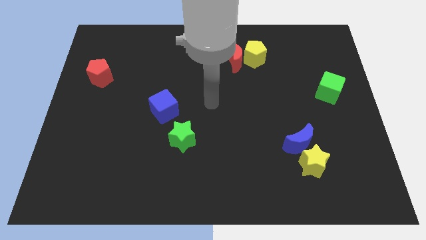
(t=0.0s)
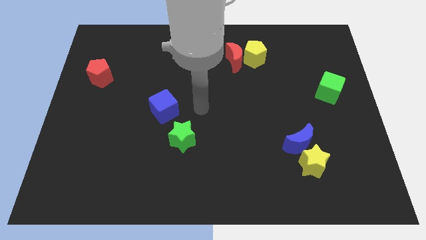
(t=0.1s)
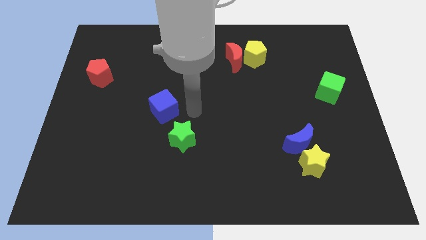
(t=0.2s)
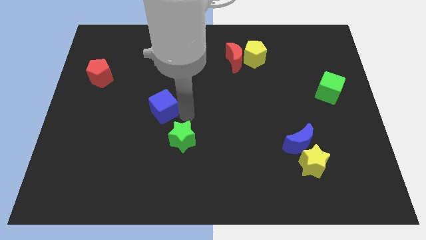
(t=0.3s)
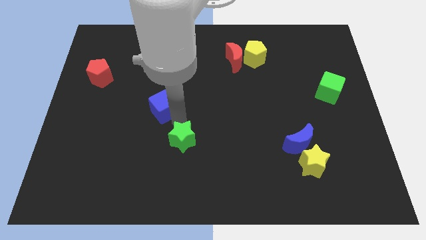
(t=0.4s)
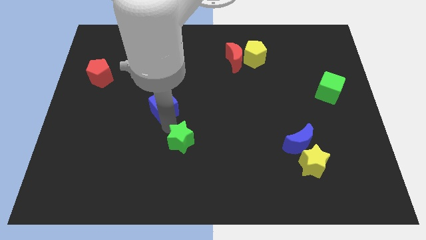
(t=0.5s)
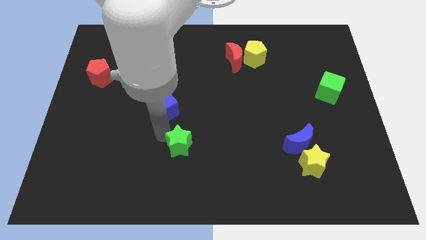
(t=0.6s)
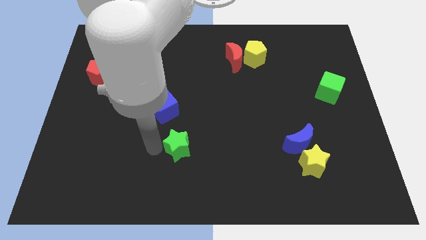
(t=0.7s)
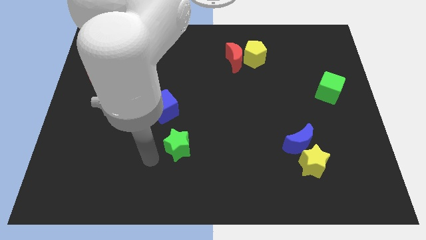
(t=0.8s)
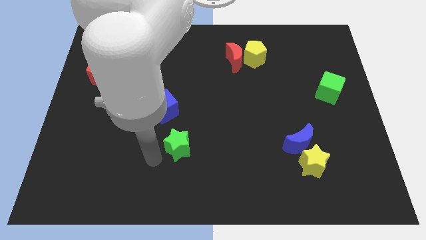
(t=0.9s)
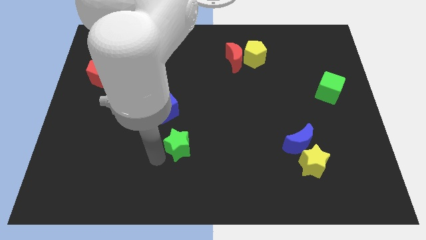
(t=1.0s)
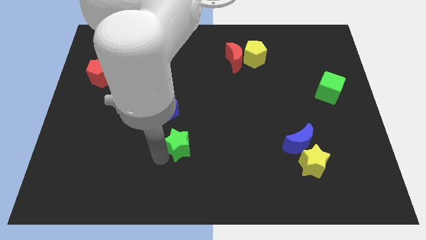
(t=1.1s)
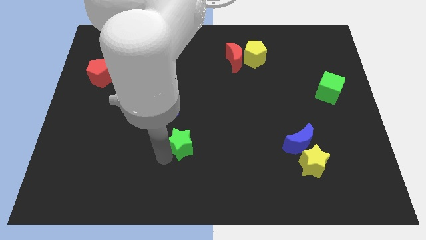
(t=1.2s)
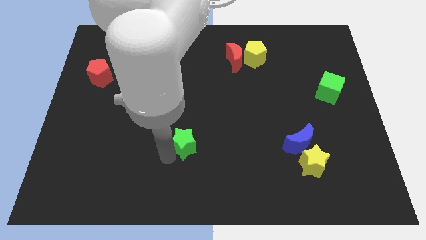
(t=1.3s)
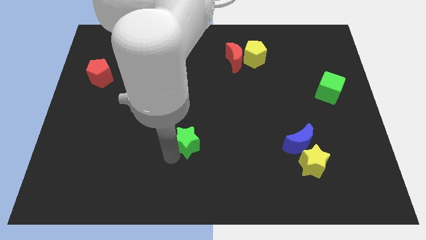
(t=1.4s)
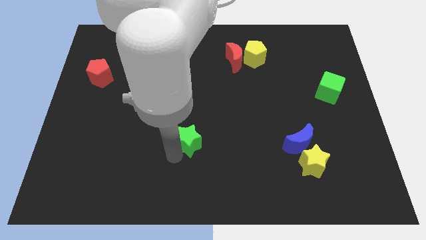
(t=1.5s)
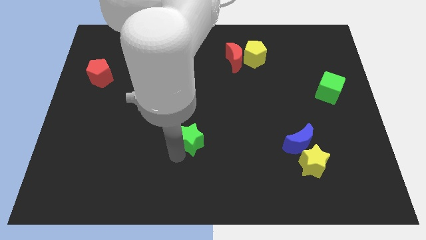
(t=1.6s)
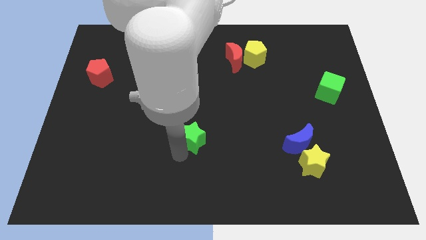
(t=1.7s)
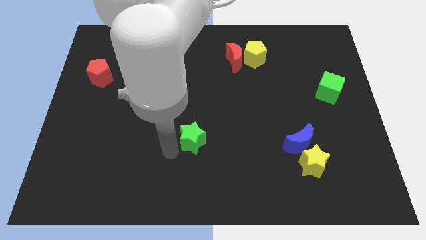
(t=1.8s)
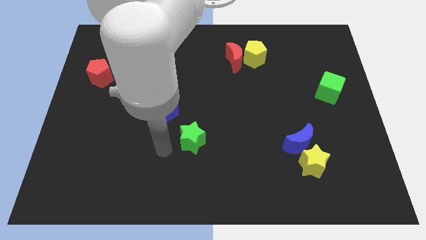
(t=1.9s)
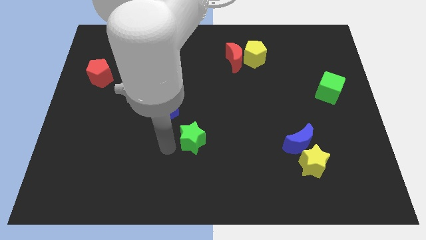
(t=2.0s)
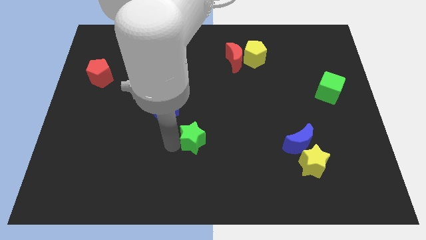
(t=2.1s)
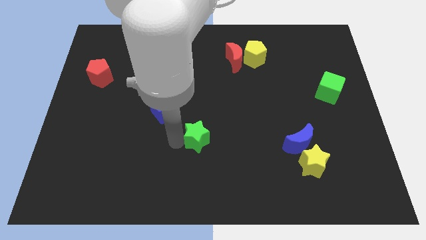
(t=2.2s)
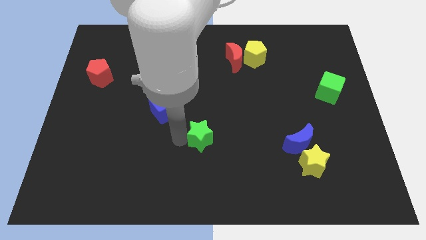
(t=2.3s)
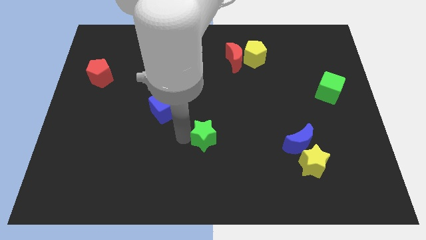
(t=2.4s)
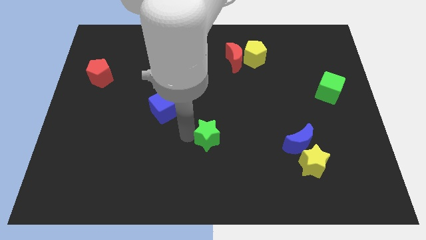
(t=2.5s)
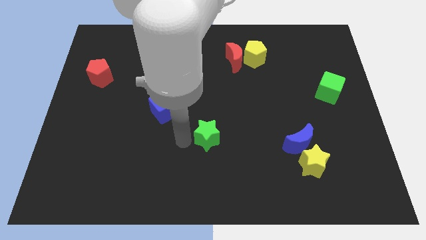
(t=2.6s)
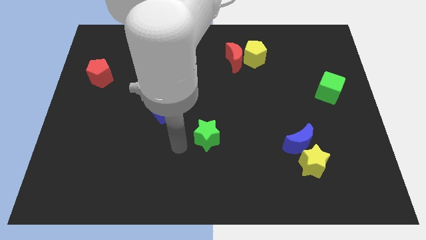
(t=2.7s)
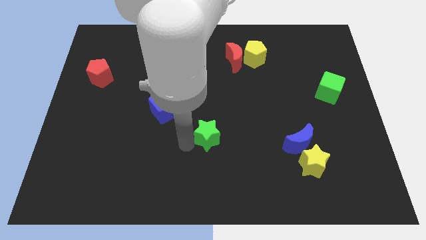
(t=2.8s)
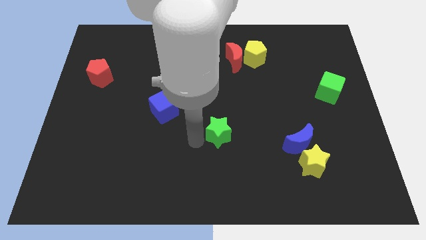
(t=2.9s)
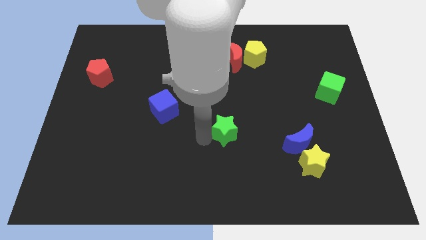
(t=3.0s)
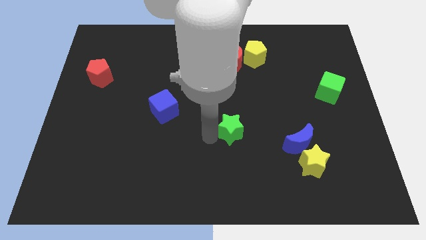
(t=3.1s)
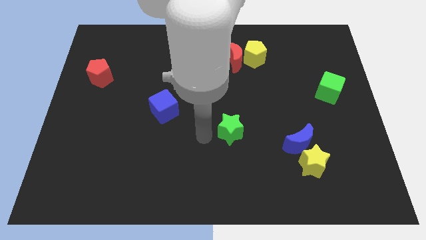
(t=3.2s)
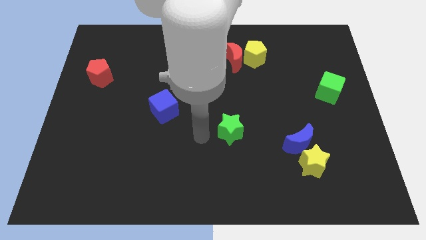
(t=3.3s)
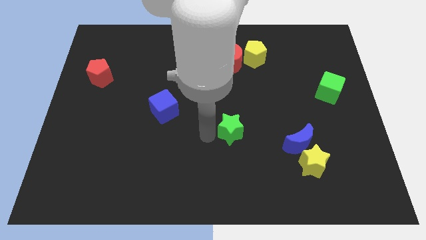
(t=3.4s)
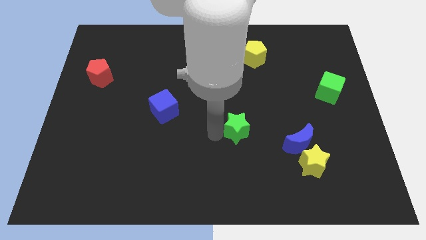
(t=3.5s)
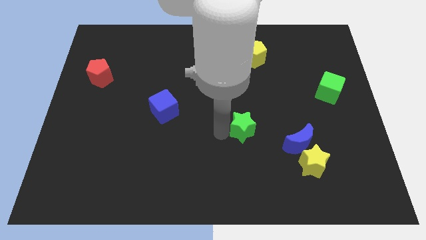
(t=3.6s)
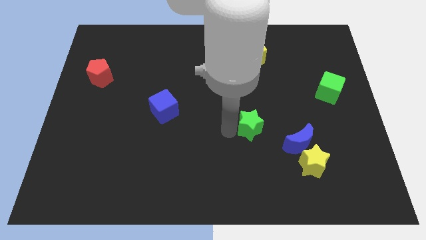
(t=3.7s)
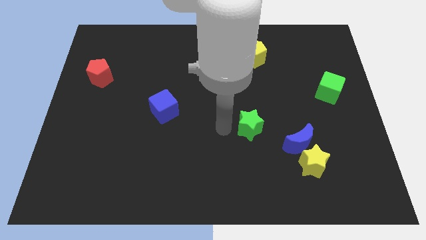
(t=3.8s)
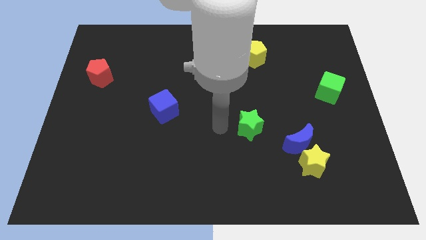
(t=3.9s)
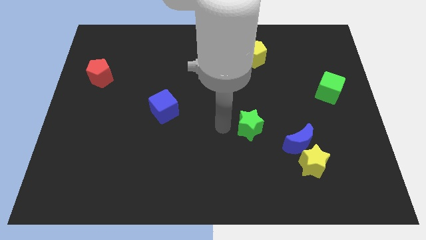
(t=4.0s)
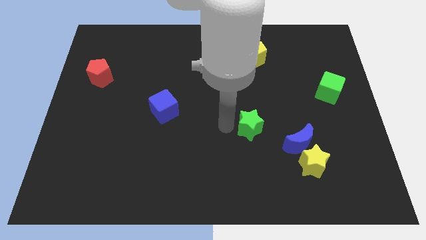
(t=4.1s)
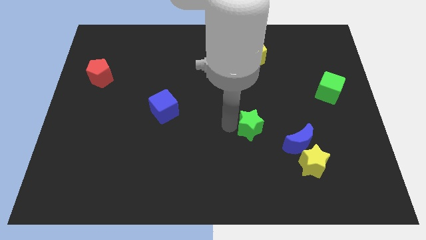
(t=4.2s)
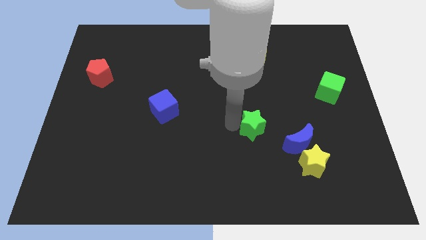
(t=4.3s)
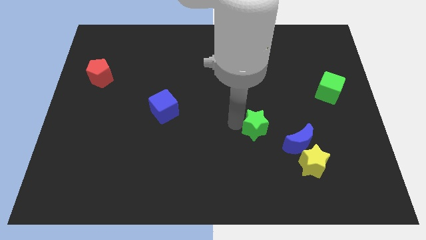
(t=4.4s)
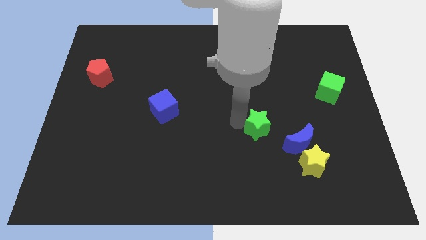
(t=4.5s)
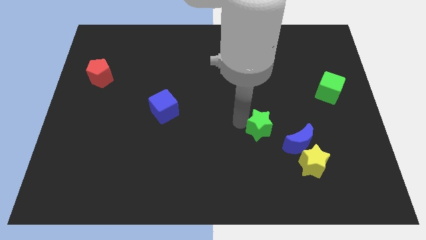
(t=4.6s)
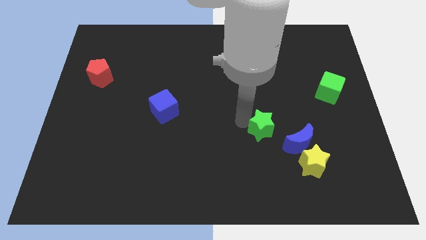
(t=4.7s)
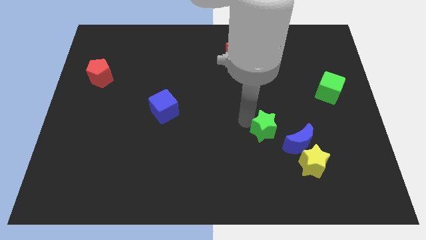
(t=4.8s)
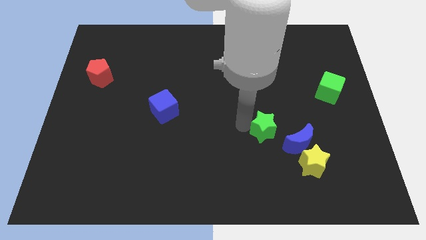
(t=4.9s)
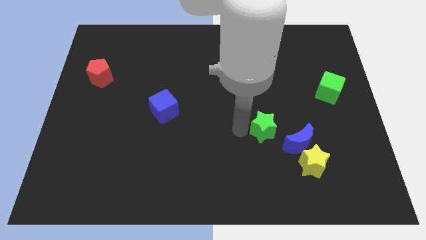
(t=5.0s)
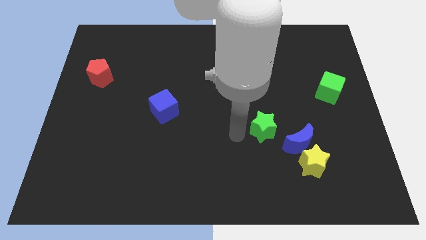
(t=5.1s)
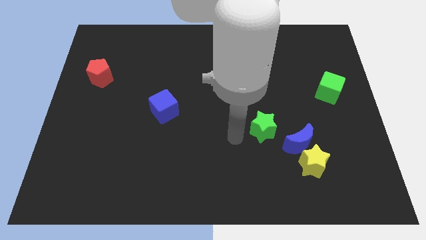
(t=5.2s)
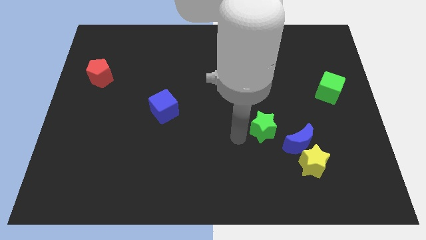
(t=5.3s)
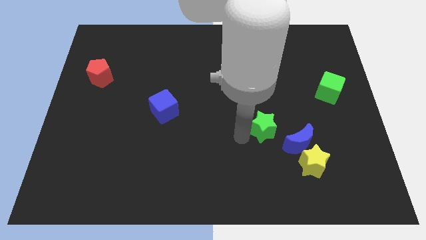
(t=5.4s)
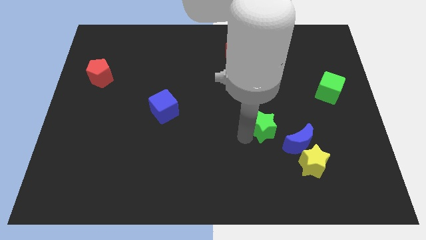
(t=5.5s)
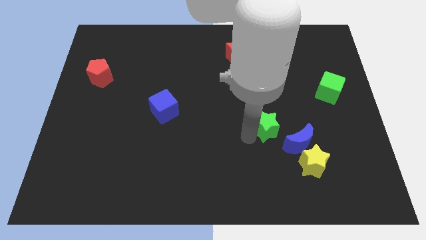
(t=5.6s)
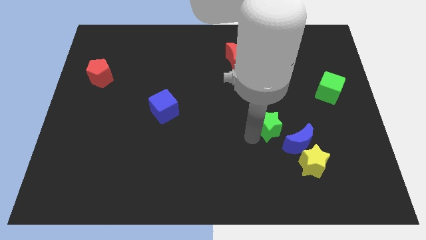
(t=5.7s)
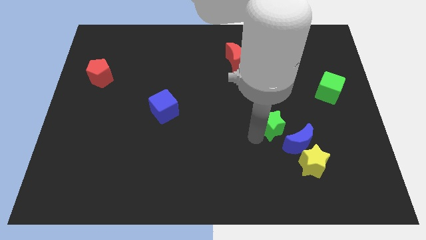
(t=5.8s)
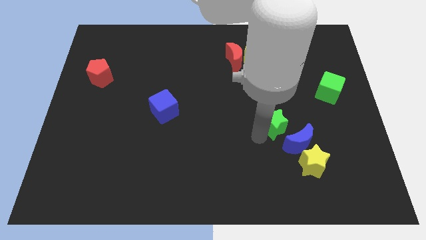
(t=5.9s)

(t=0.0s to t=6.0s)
slide the green star to the right

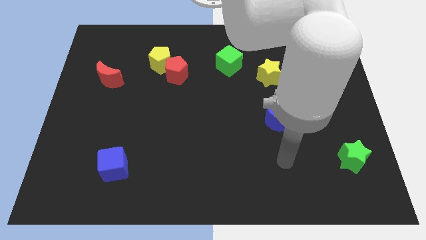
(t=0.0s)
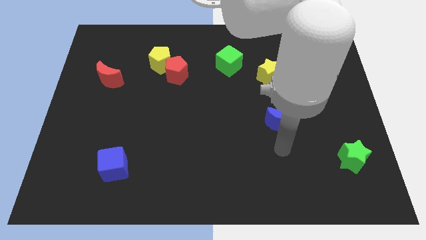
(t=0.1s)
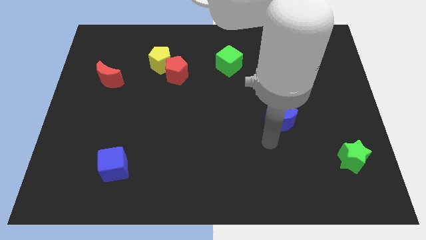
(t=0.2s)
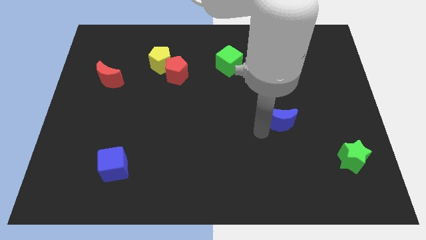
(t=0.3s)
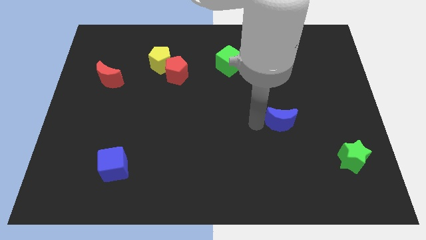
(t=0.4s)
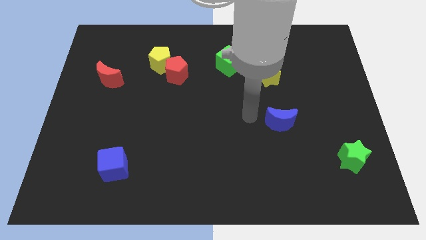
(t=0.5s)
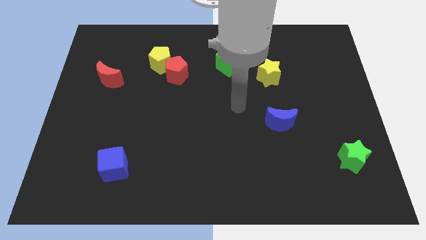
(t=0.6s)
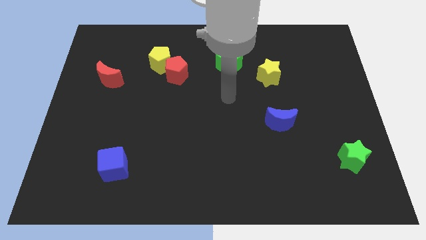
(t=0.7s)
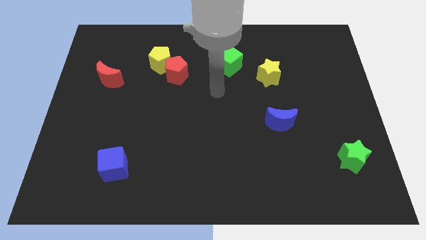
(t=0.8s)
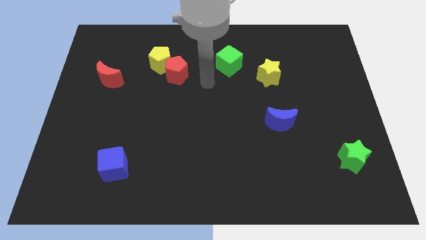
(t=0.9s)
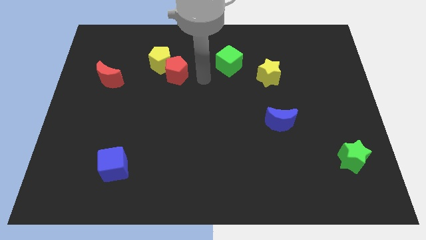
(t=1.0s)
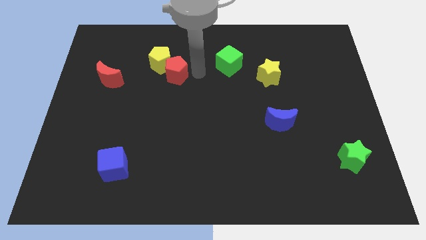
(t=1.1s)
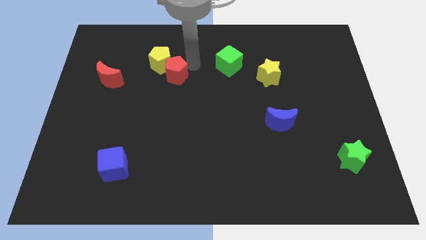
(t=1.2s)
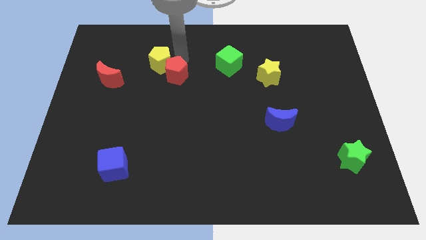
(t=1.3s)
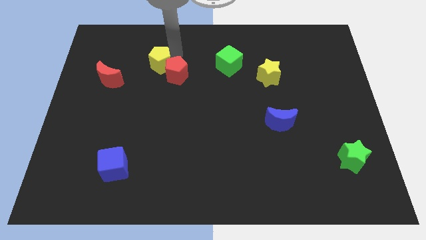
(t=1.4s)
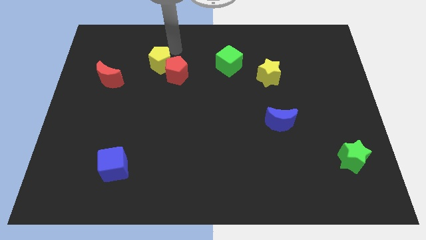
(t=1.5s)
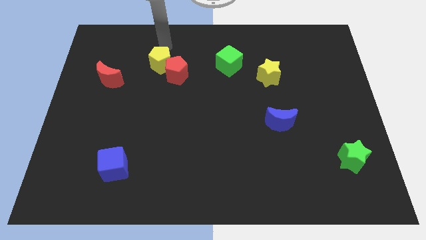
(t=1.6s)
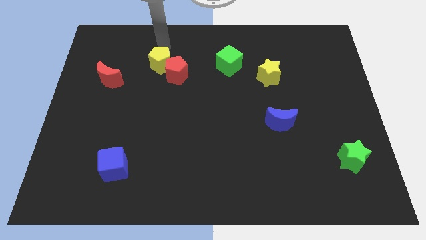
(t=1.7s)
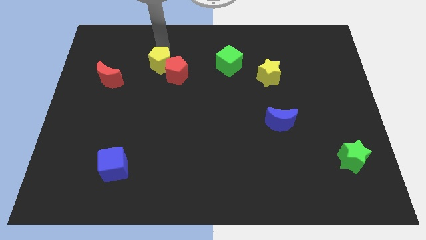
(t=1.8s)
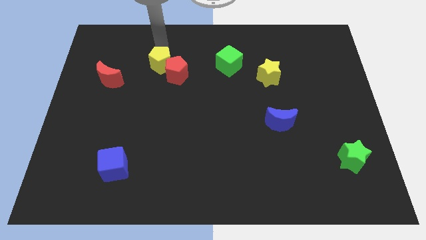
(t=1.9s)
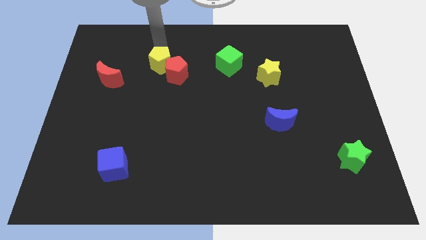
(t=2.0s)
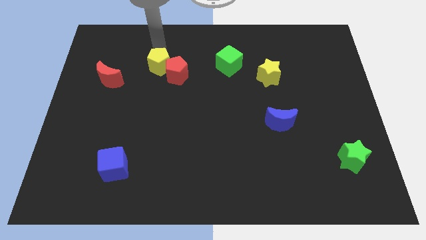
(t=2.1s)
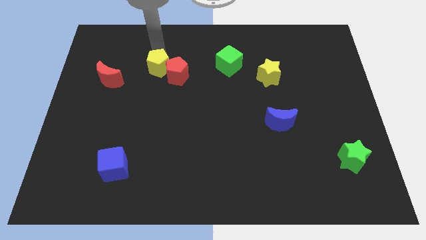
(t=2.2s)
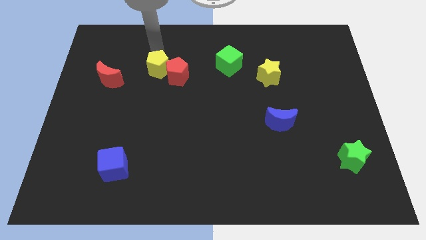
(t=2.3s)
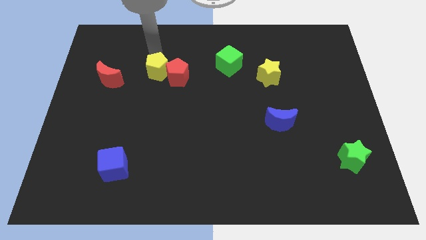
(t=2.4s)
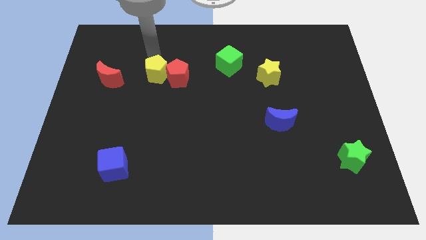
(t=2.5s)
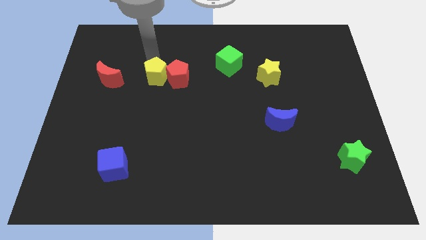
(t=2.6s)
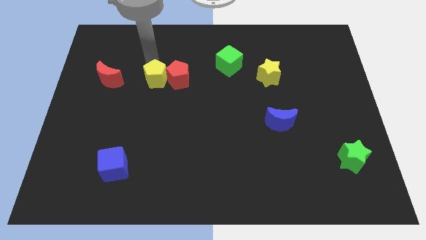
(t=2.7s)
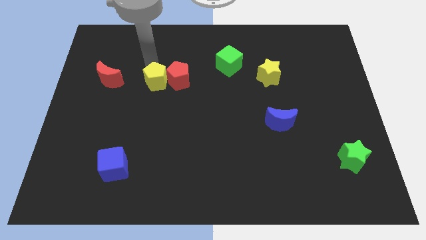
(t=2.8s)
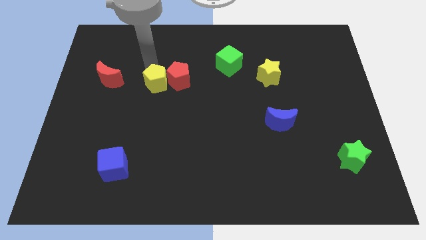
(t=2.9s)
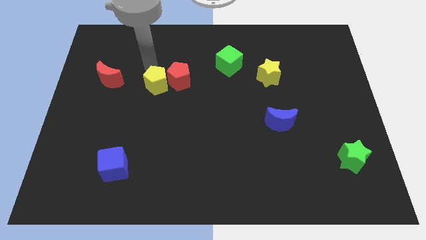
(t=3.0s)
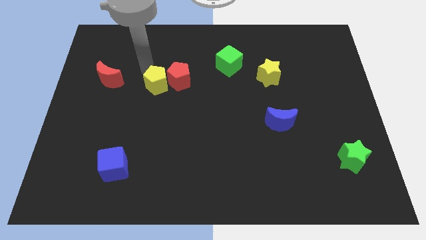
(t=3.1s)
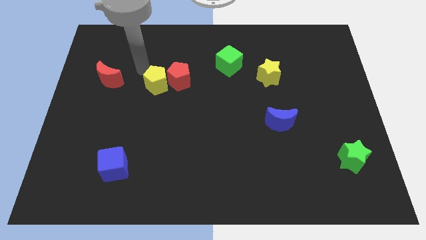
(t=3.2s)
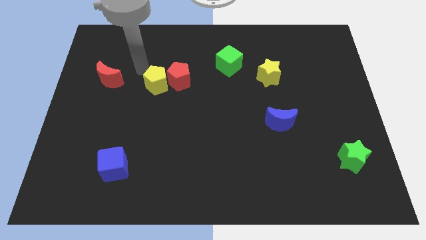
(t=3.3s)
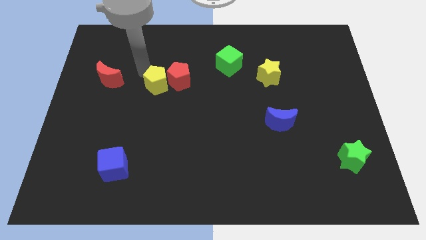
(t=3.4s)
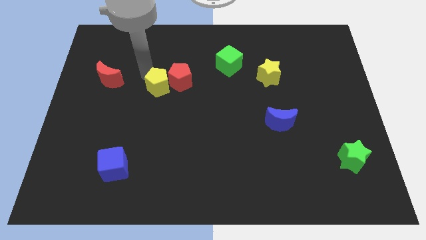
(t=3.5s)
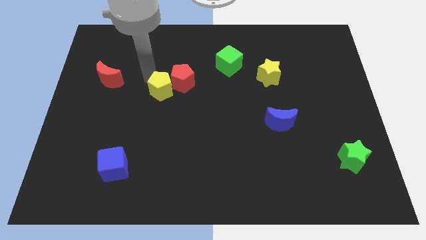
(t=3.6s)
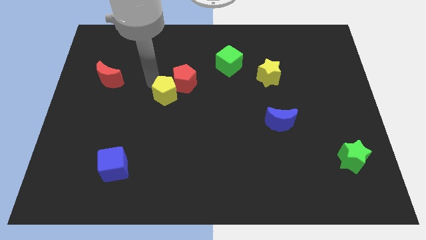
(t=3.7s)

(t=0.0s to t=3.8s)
slide the yellow pentagon down and then to the right a bit
